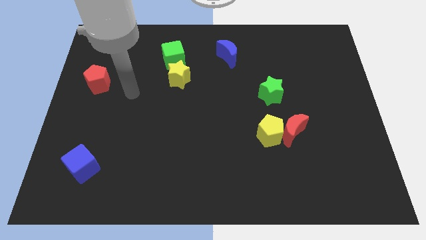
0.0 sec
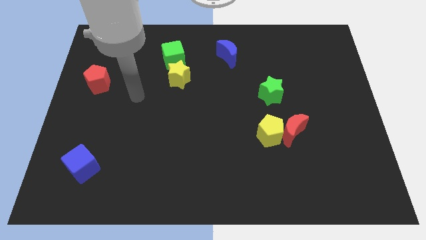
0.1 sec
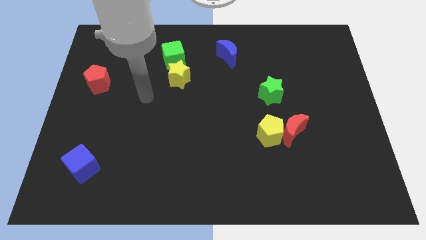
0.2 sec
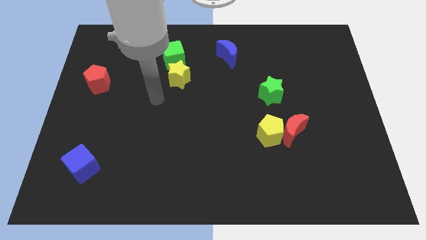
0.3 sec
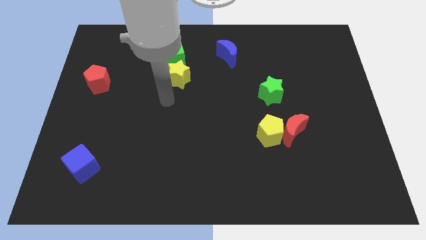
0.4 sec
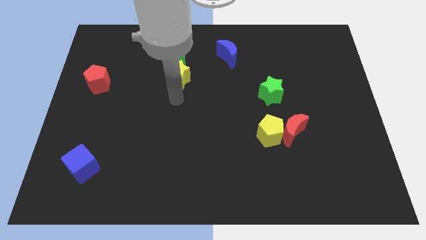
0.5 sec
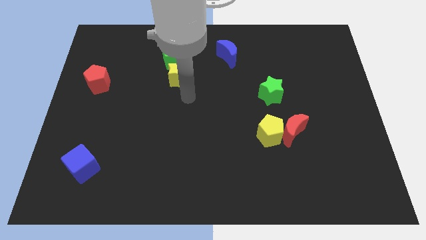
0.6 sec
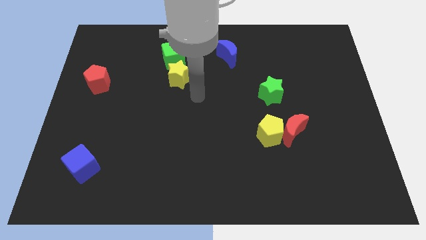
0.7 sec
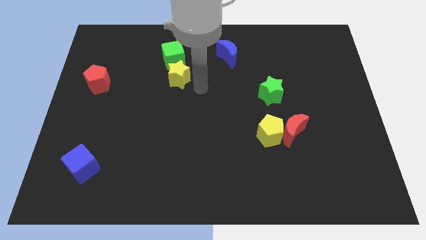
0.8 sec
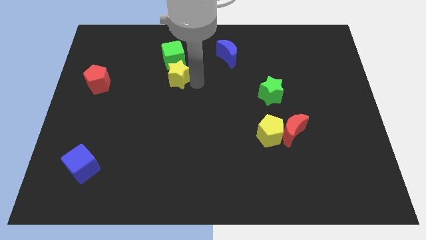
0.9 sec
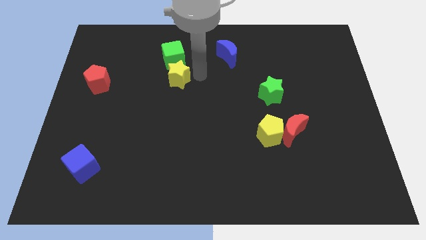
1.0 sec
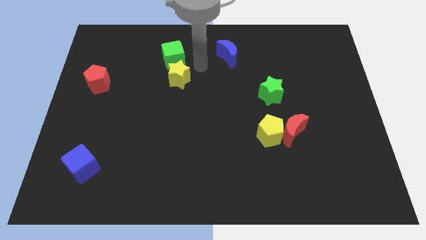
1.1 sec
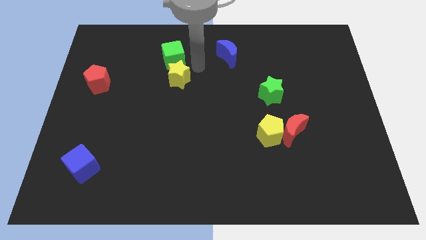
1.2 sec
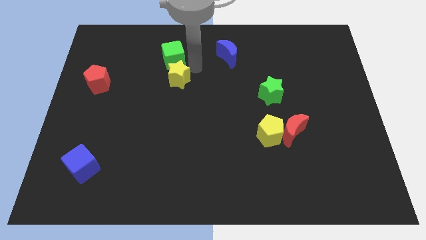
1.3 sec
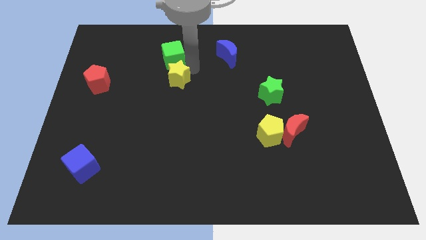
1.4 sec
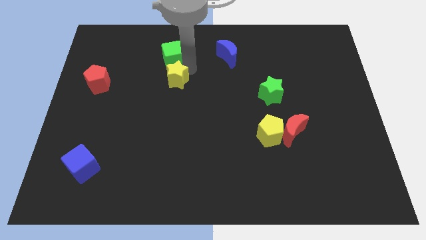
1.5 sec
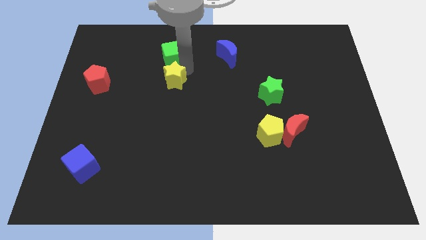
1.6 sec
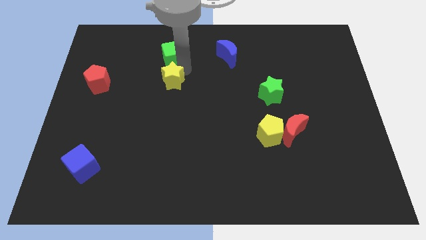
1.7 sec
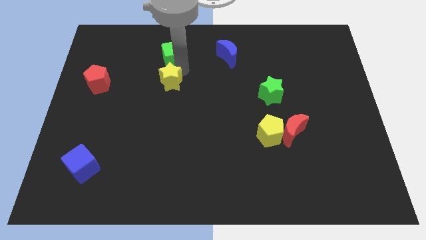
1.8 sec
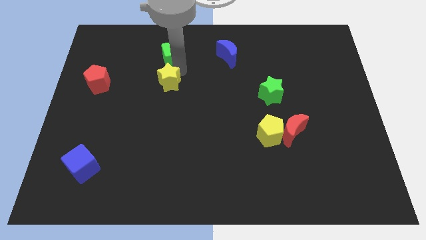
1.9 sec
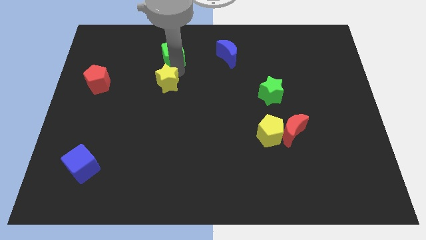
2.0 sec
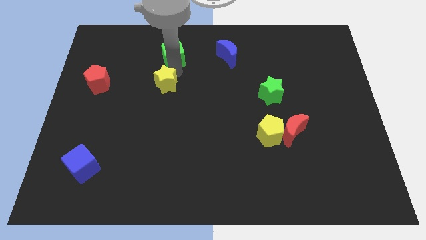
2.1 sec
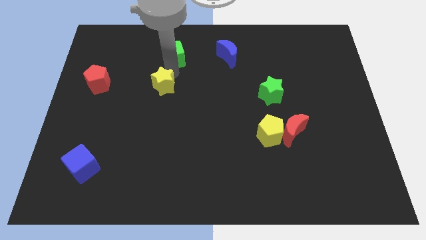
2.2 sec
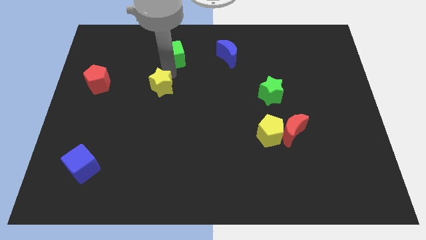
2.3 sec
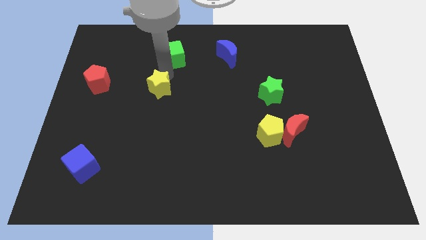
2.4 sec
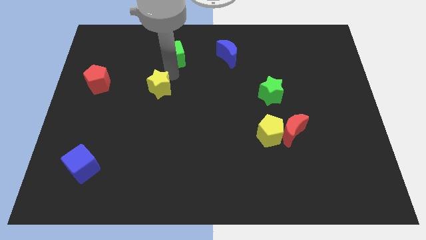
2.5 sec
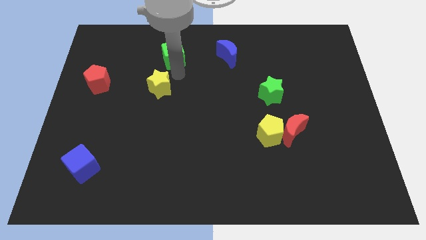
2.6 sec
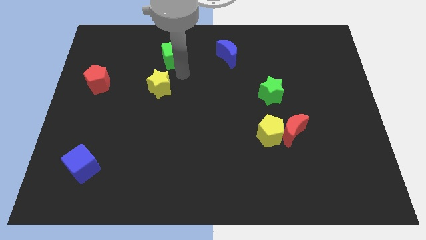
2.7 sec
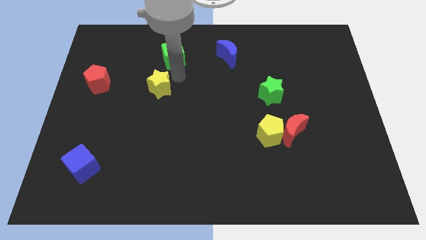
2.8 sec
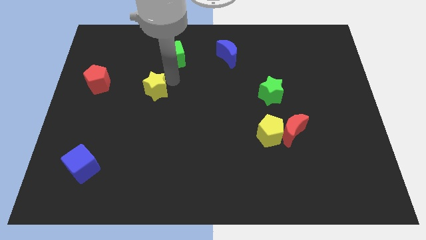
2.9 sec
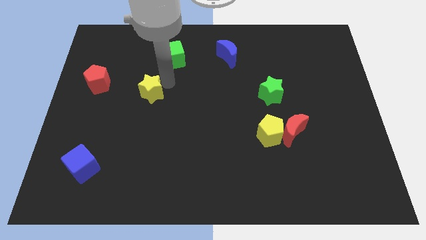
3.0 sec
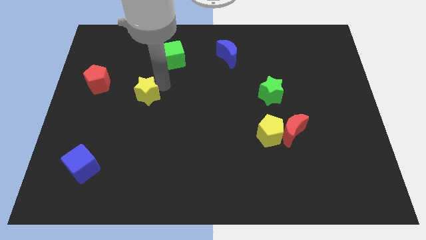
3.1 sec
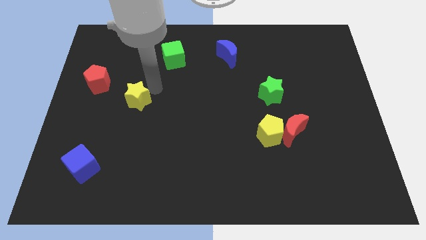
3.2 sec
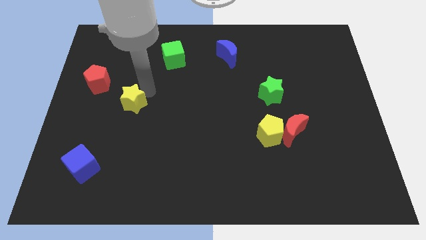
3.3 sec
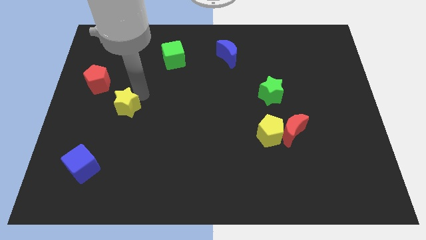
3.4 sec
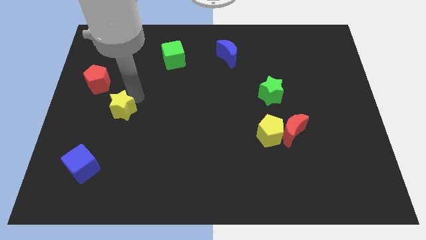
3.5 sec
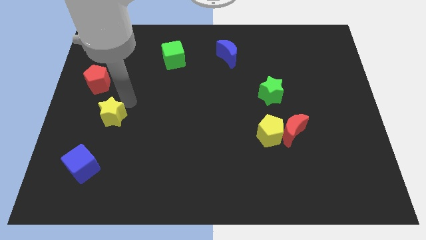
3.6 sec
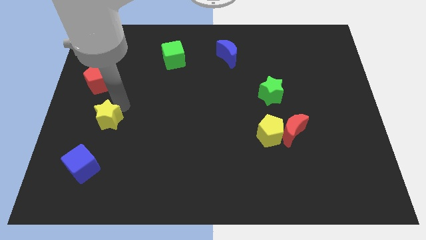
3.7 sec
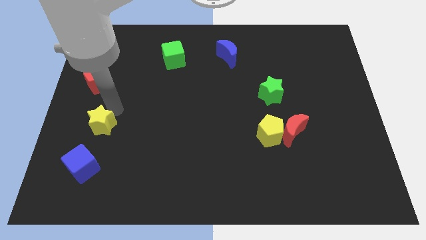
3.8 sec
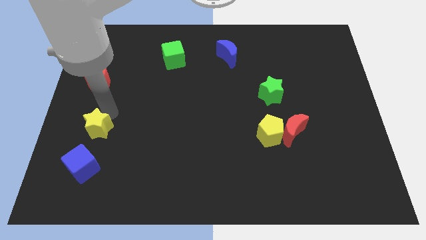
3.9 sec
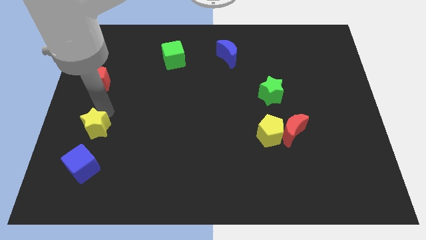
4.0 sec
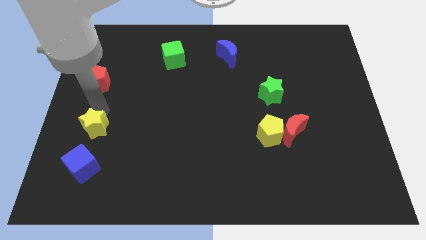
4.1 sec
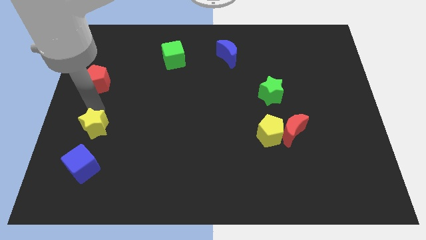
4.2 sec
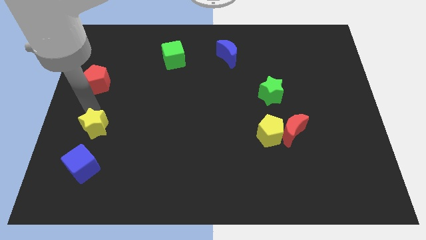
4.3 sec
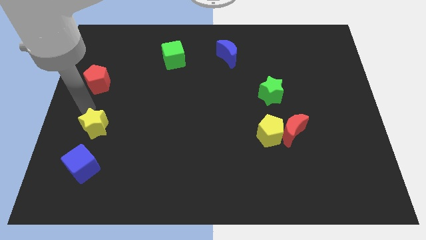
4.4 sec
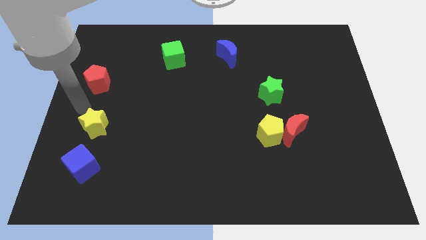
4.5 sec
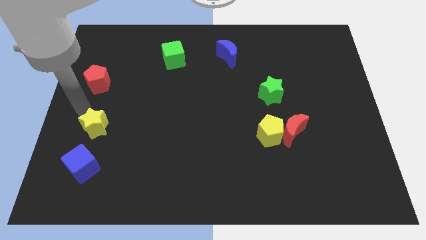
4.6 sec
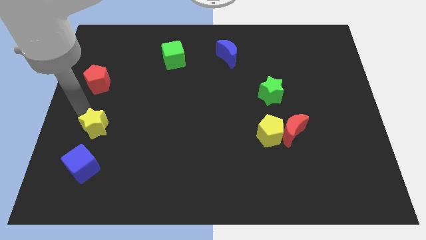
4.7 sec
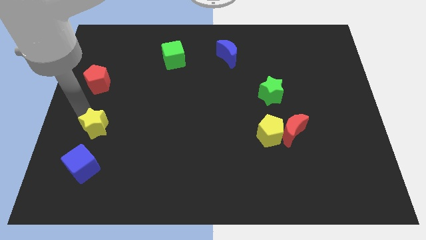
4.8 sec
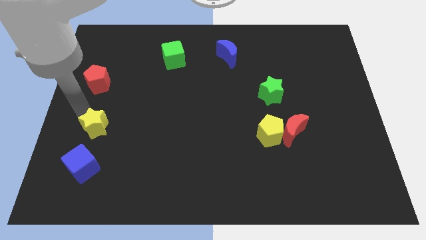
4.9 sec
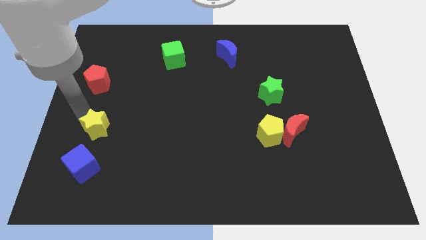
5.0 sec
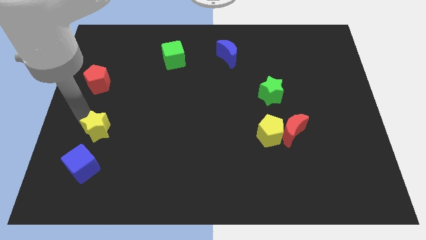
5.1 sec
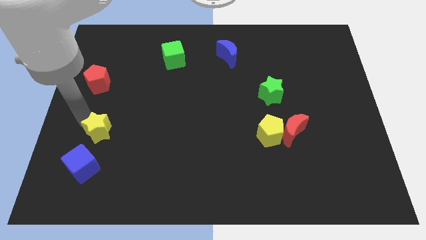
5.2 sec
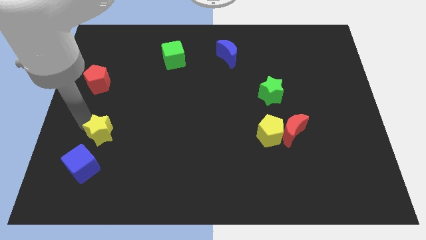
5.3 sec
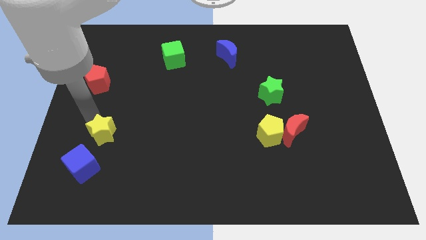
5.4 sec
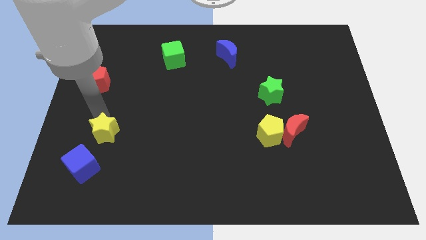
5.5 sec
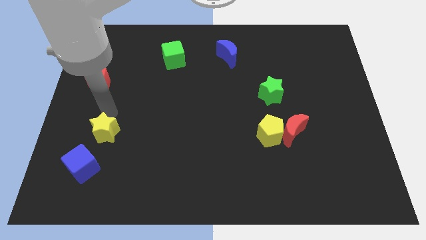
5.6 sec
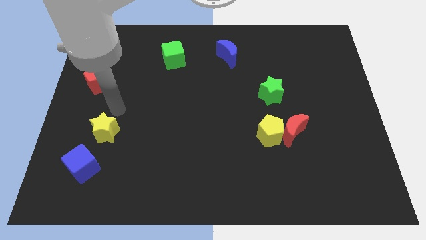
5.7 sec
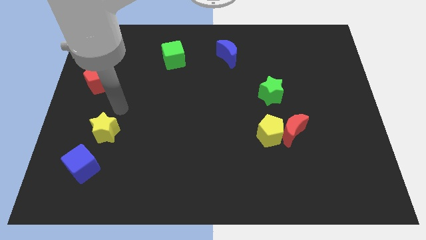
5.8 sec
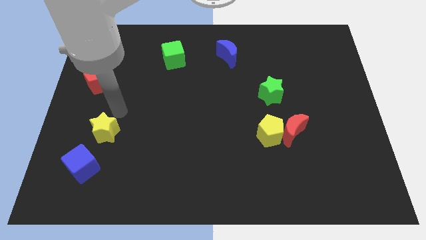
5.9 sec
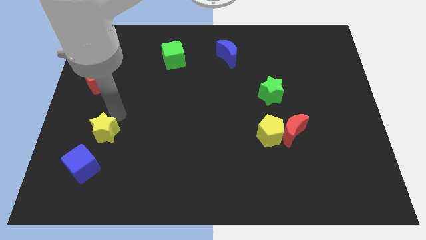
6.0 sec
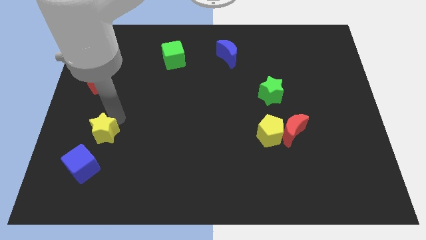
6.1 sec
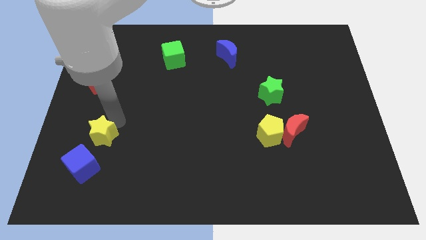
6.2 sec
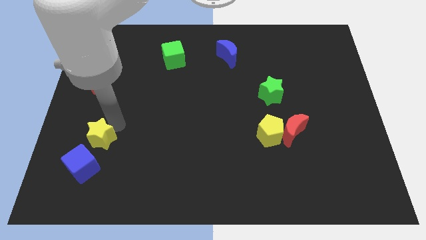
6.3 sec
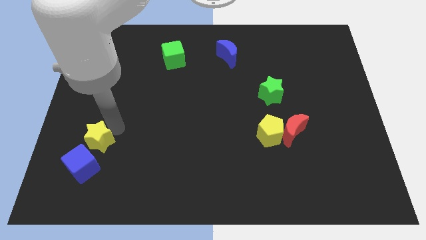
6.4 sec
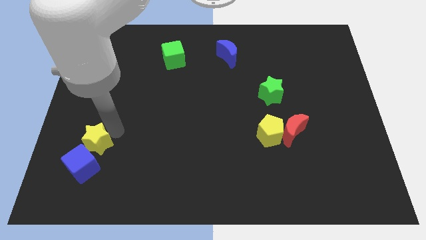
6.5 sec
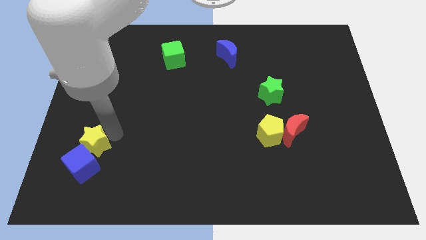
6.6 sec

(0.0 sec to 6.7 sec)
move the yellow star next to the blue cube

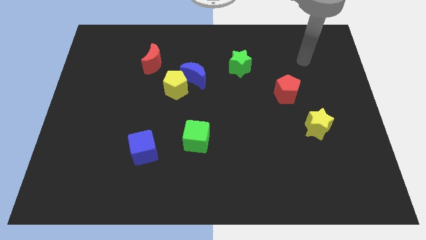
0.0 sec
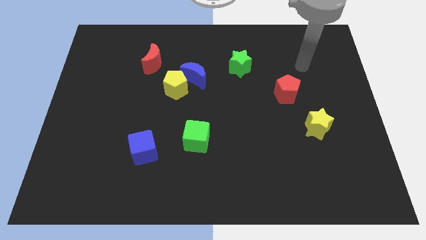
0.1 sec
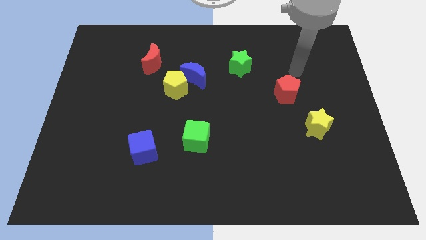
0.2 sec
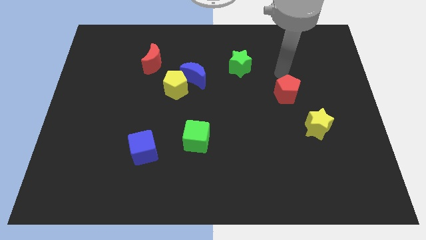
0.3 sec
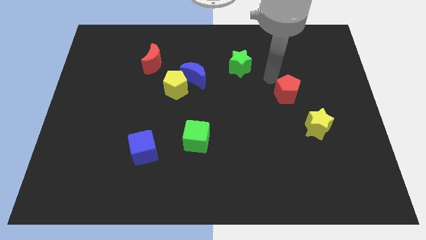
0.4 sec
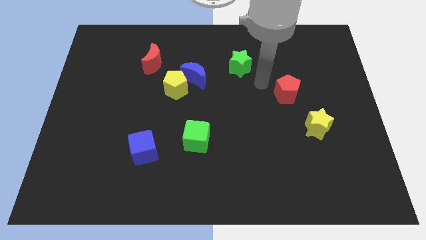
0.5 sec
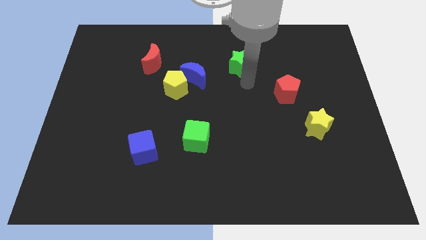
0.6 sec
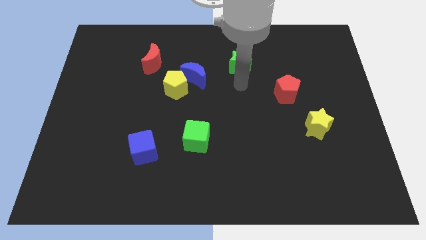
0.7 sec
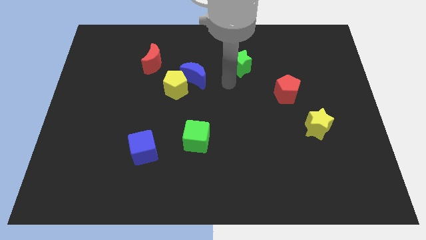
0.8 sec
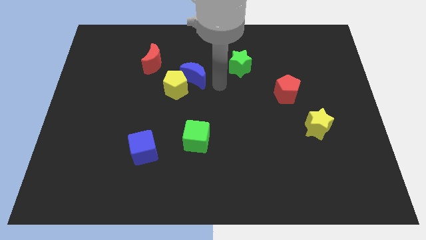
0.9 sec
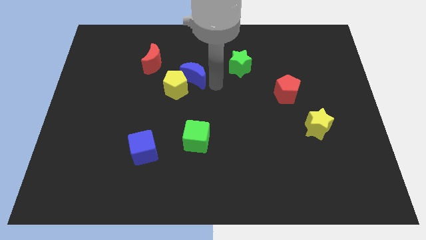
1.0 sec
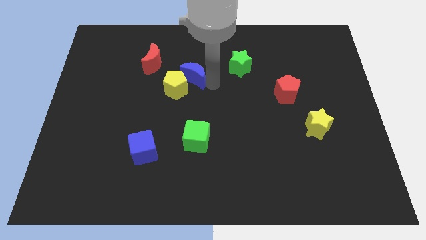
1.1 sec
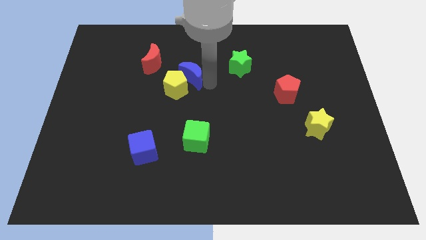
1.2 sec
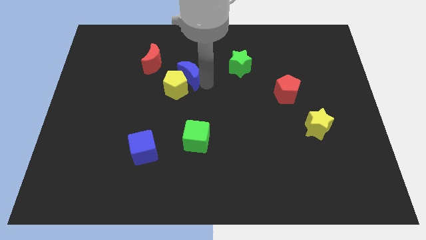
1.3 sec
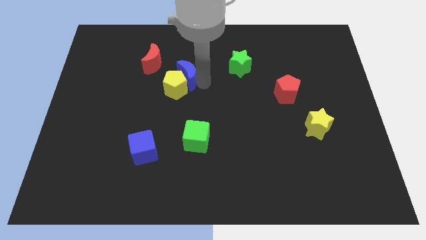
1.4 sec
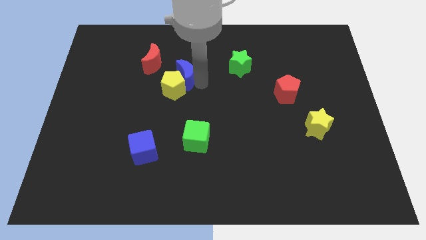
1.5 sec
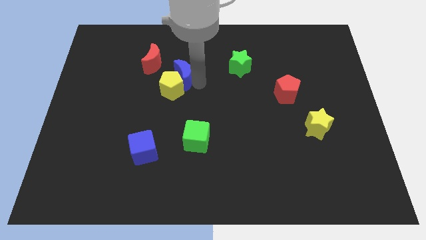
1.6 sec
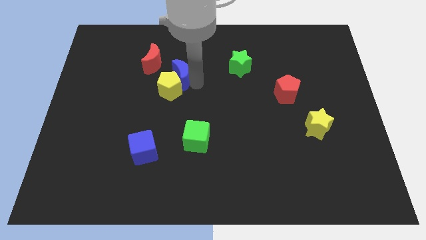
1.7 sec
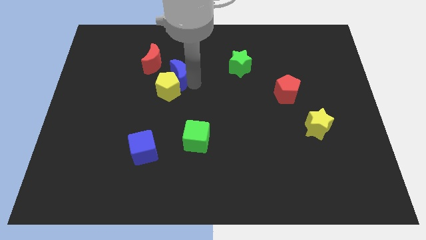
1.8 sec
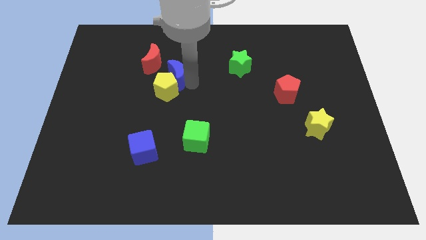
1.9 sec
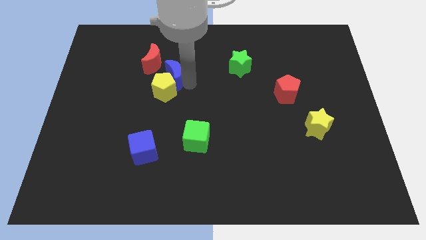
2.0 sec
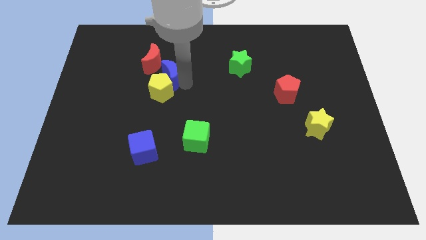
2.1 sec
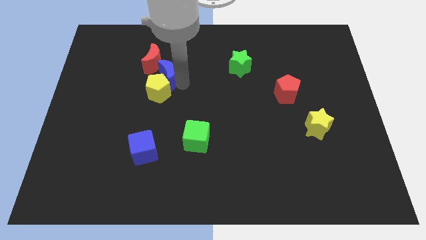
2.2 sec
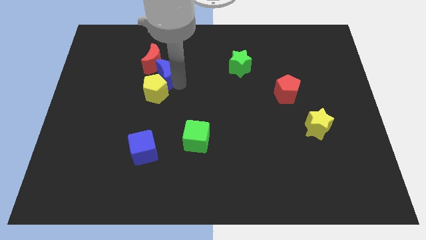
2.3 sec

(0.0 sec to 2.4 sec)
push the blue moon close to the red moon
